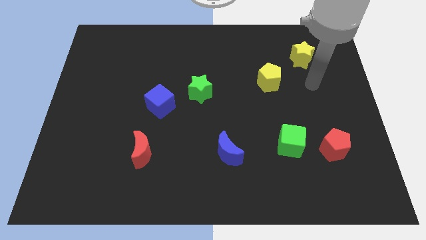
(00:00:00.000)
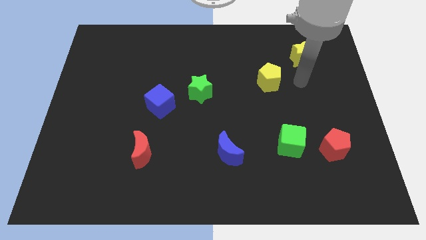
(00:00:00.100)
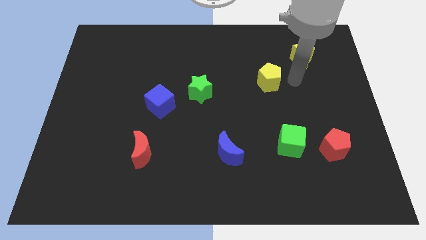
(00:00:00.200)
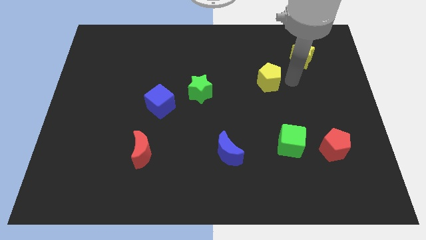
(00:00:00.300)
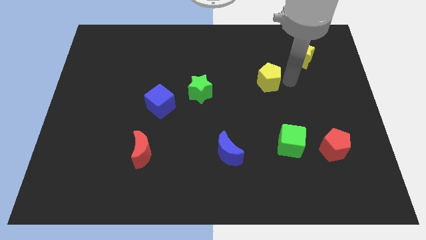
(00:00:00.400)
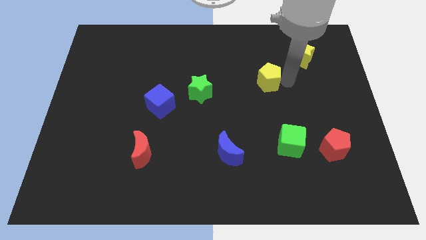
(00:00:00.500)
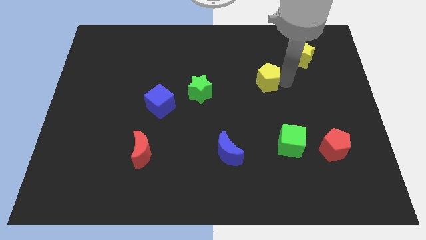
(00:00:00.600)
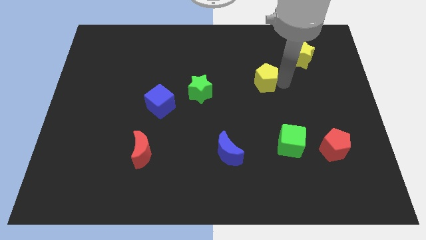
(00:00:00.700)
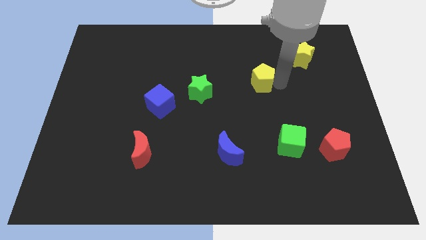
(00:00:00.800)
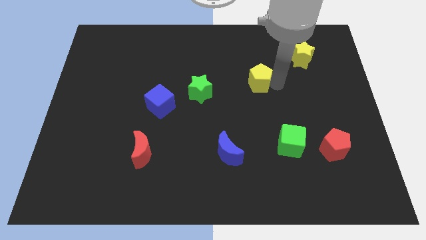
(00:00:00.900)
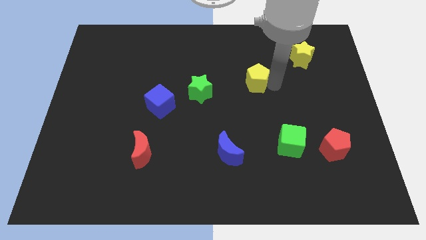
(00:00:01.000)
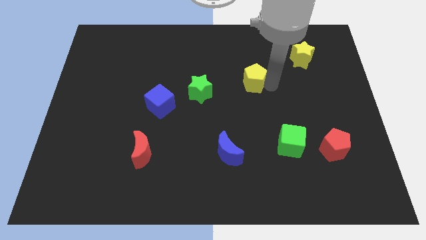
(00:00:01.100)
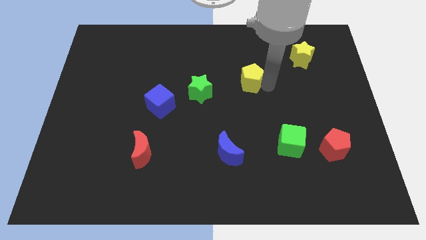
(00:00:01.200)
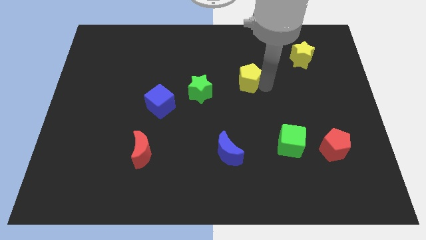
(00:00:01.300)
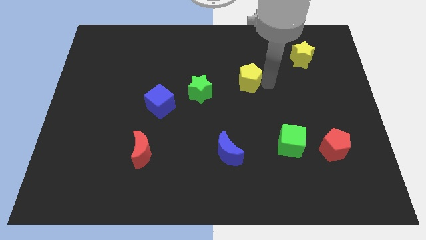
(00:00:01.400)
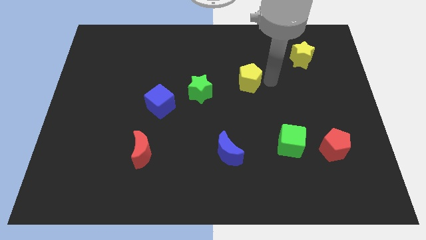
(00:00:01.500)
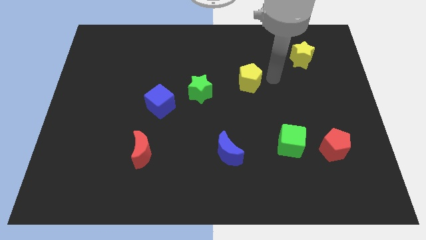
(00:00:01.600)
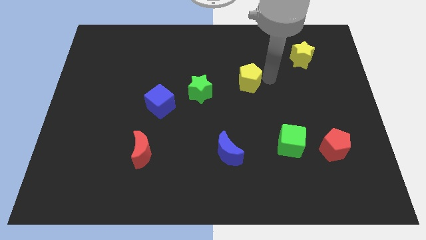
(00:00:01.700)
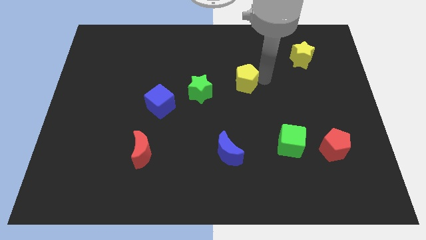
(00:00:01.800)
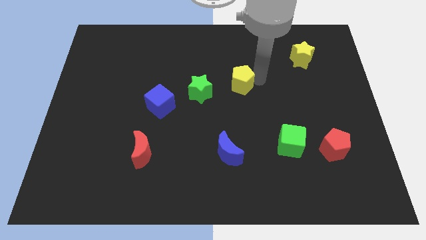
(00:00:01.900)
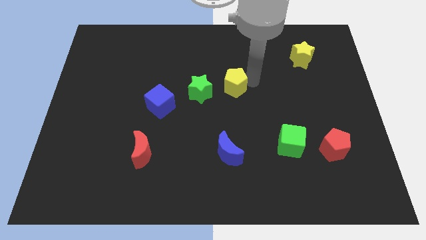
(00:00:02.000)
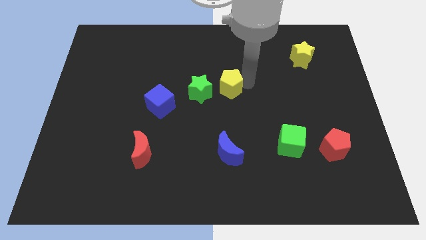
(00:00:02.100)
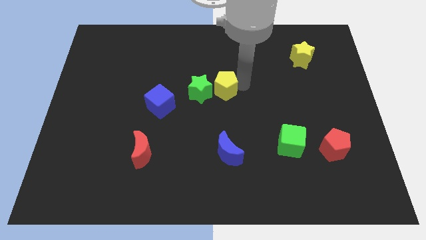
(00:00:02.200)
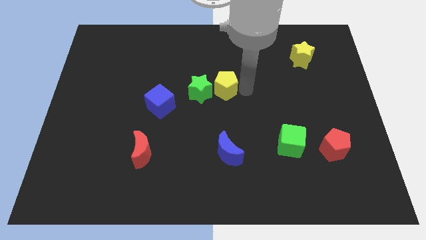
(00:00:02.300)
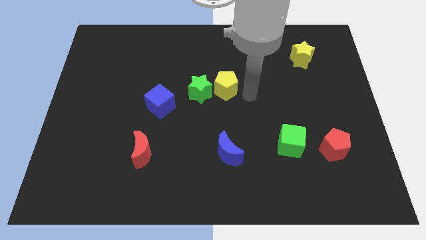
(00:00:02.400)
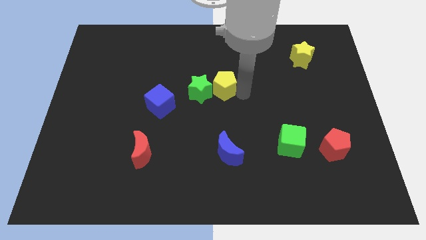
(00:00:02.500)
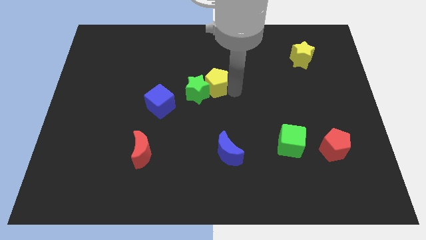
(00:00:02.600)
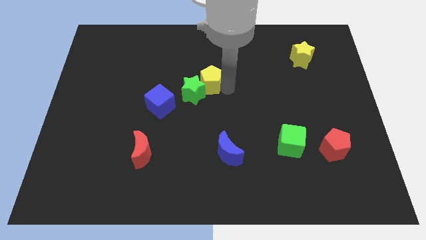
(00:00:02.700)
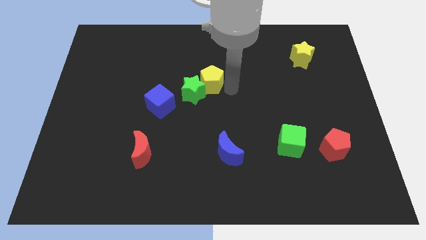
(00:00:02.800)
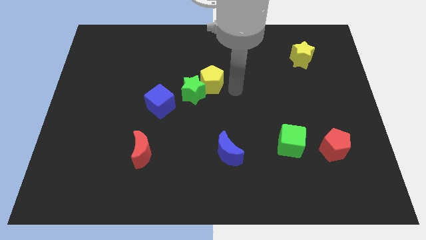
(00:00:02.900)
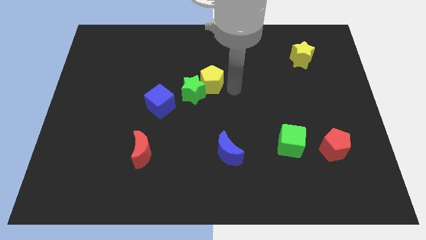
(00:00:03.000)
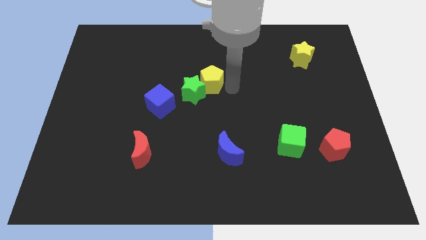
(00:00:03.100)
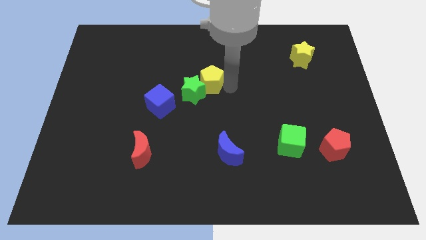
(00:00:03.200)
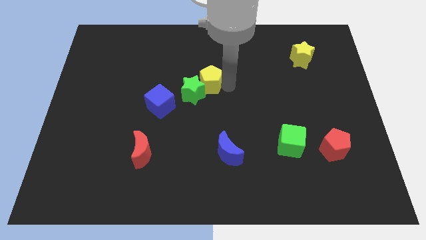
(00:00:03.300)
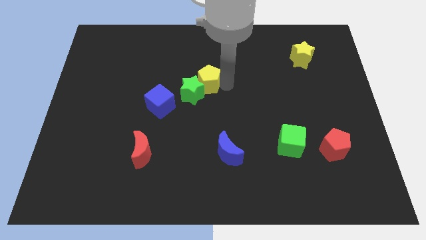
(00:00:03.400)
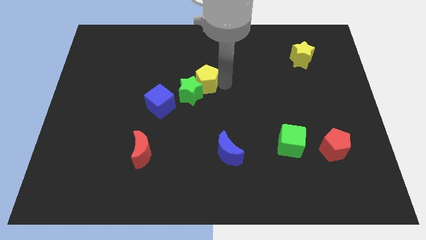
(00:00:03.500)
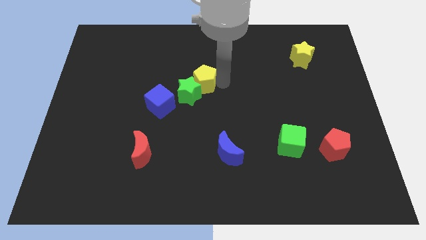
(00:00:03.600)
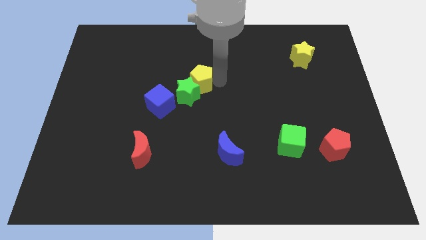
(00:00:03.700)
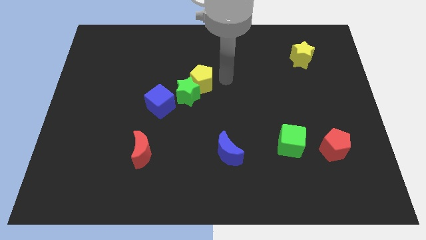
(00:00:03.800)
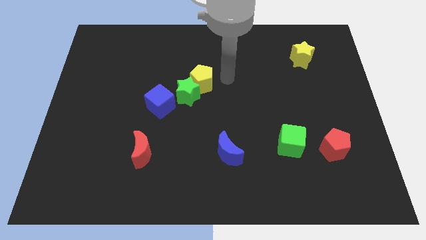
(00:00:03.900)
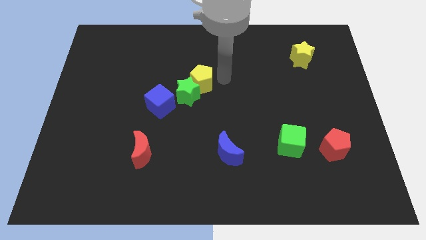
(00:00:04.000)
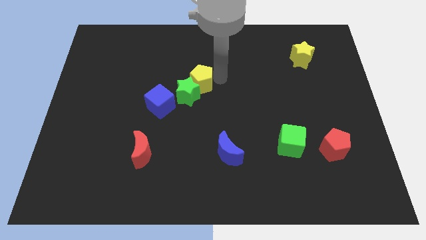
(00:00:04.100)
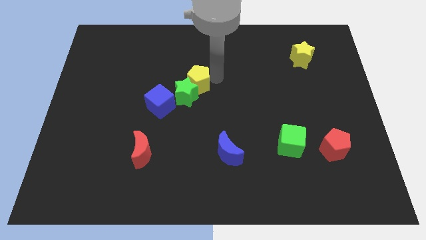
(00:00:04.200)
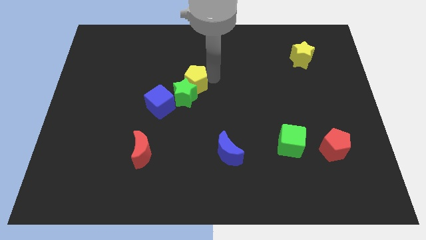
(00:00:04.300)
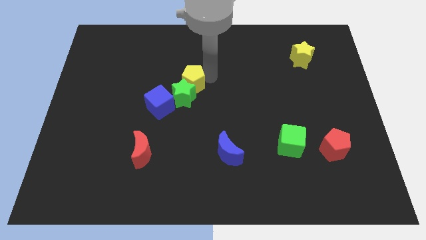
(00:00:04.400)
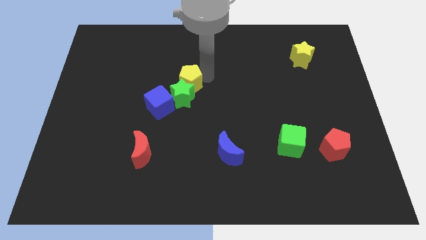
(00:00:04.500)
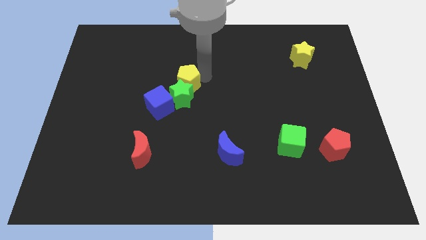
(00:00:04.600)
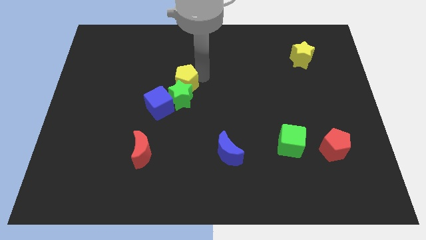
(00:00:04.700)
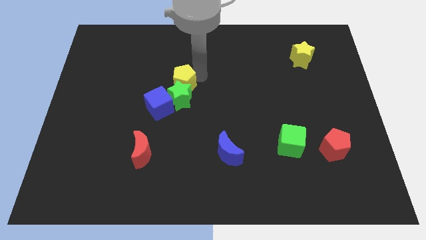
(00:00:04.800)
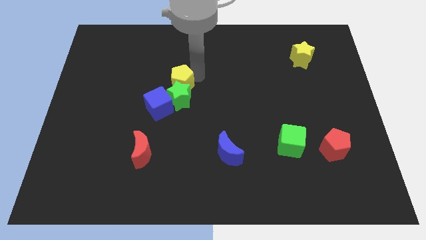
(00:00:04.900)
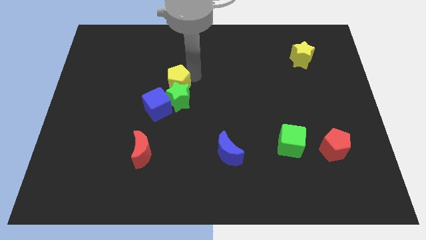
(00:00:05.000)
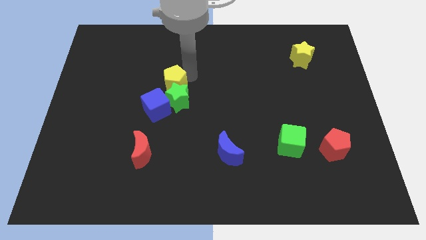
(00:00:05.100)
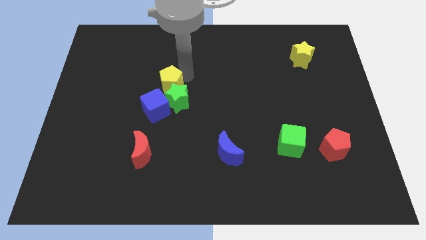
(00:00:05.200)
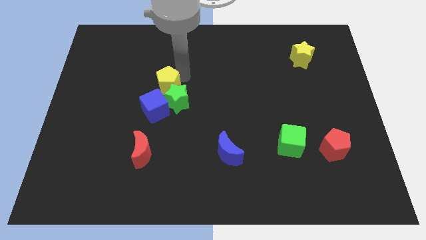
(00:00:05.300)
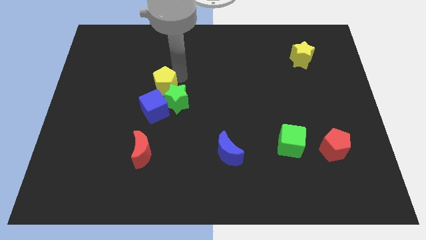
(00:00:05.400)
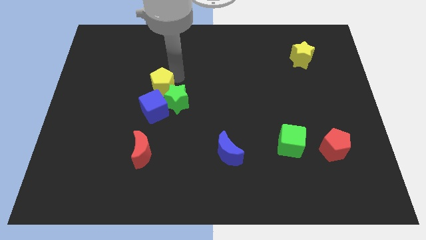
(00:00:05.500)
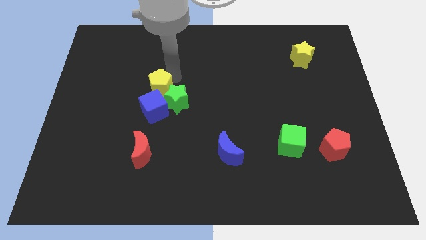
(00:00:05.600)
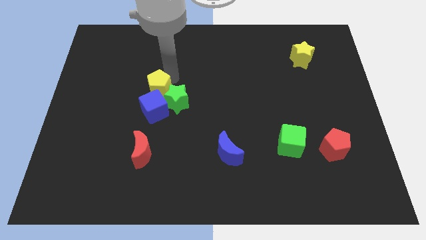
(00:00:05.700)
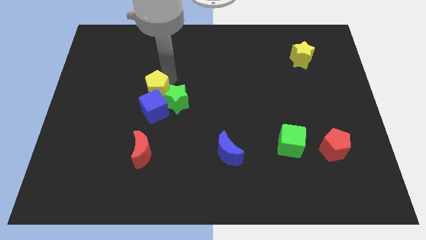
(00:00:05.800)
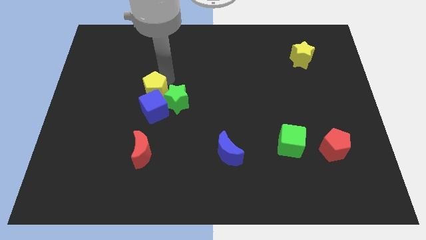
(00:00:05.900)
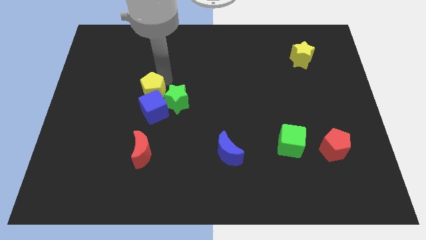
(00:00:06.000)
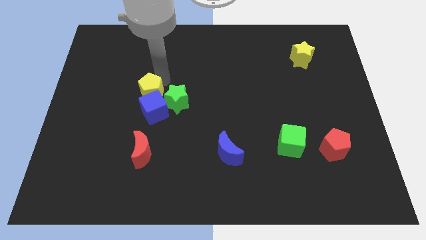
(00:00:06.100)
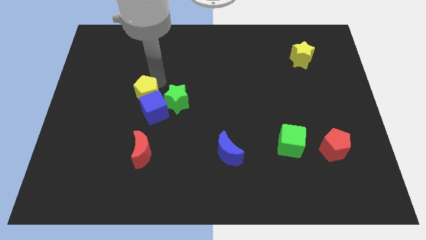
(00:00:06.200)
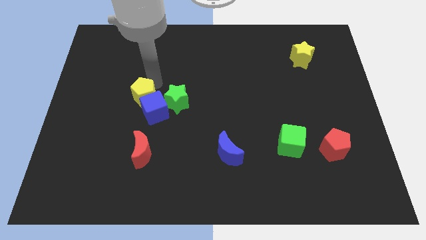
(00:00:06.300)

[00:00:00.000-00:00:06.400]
move the yellow pentagon to the left side of the blue cube

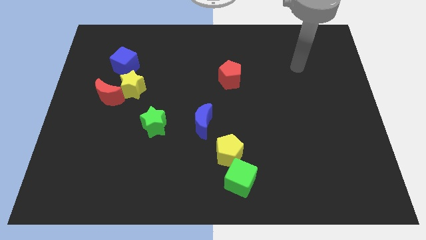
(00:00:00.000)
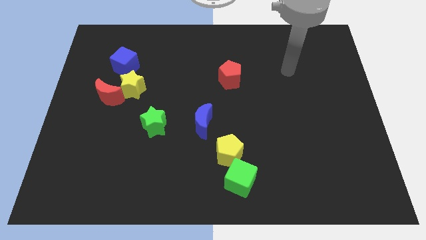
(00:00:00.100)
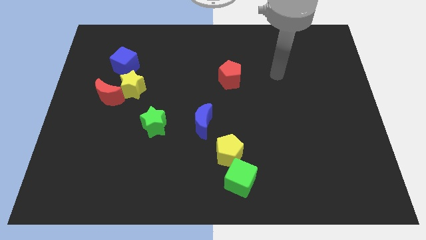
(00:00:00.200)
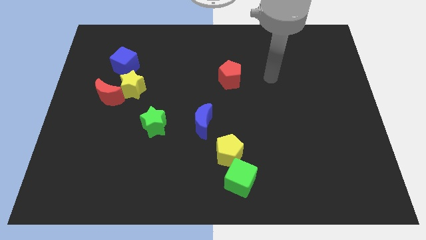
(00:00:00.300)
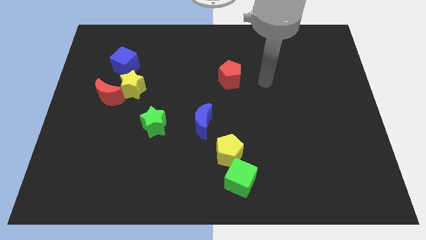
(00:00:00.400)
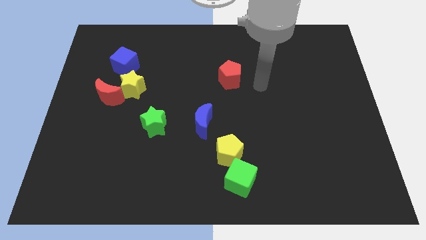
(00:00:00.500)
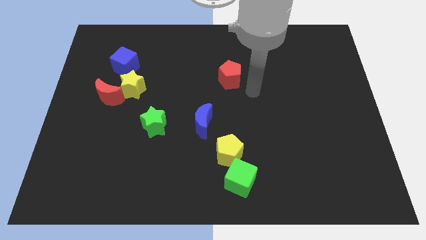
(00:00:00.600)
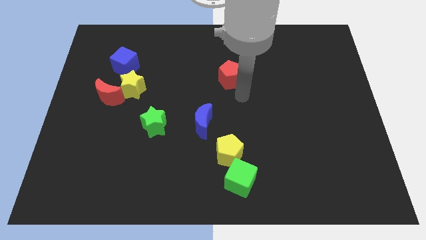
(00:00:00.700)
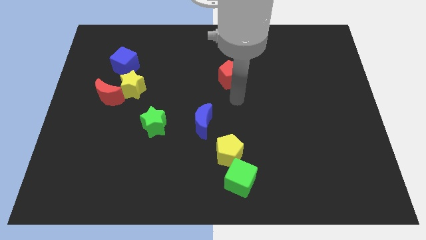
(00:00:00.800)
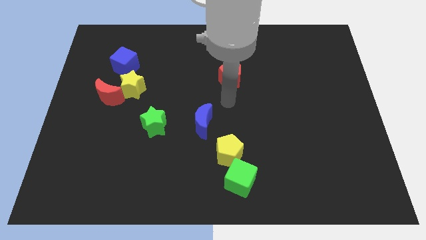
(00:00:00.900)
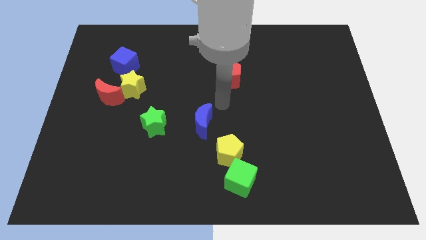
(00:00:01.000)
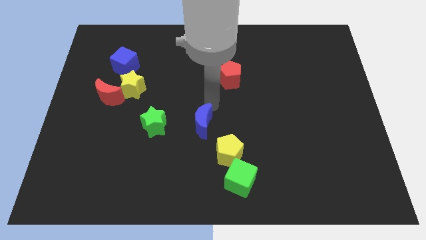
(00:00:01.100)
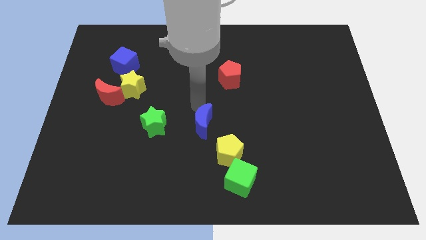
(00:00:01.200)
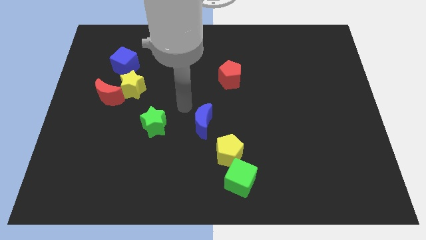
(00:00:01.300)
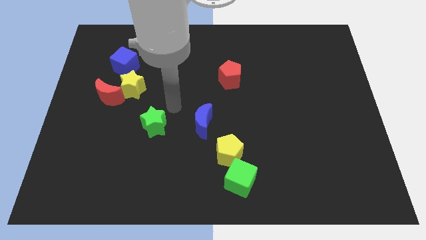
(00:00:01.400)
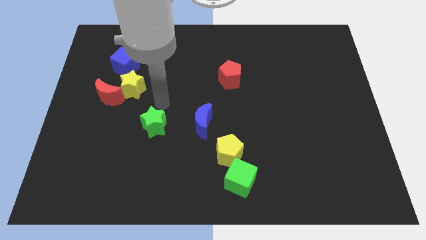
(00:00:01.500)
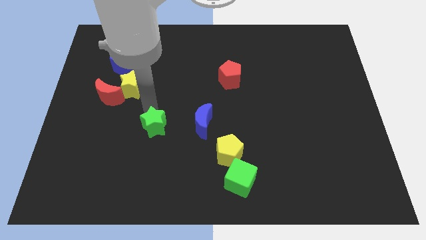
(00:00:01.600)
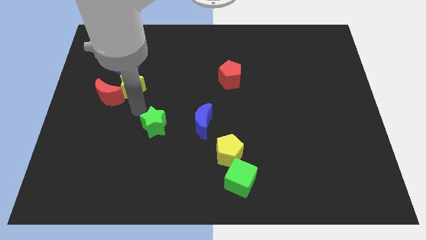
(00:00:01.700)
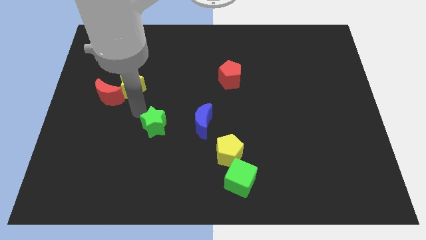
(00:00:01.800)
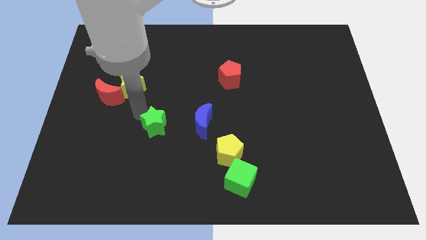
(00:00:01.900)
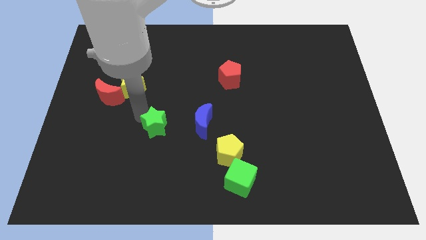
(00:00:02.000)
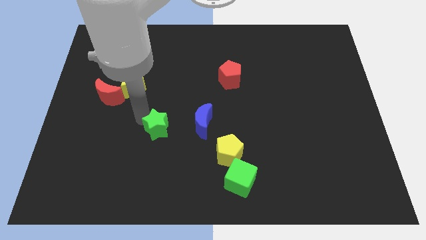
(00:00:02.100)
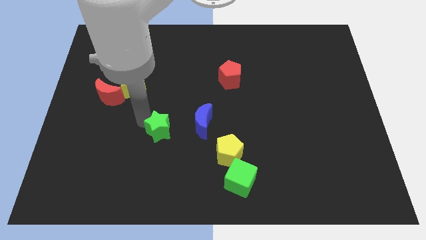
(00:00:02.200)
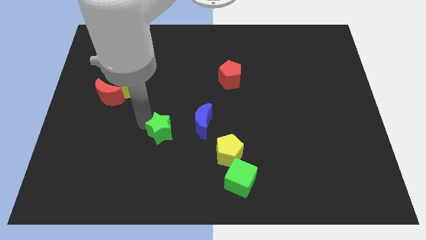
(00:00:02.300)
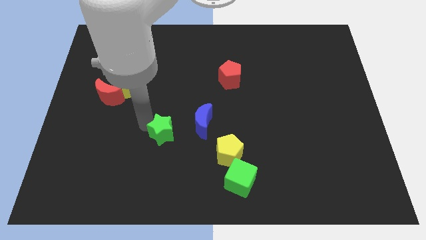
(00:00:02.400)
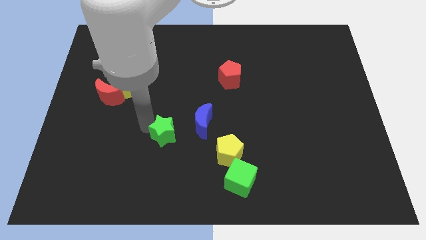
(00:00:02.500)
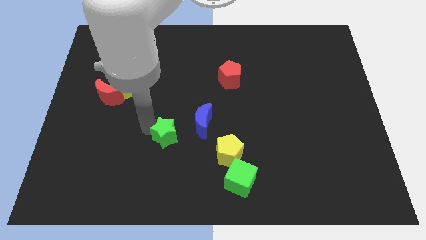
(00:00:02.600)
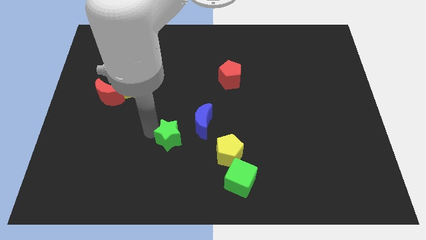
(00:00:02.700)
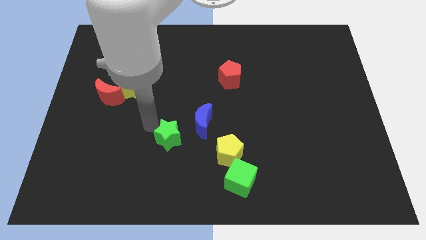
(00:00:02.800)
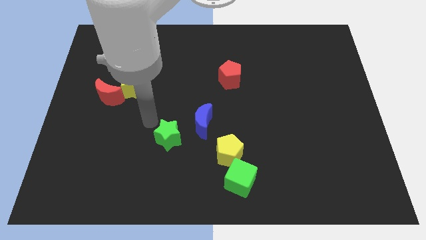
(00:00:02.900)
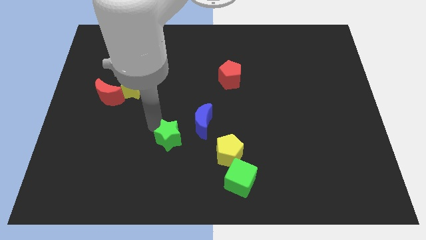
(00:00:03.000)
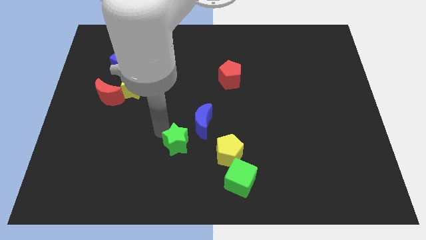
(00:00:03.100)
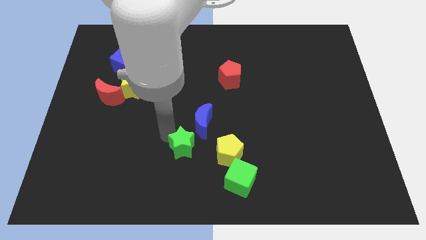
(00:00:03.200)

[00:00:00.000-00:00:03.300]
push the green star to the bottom of the blue moon
